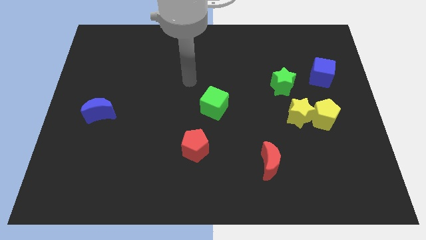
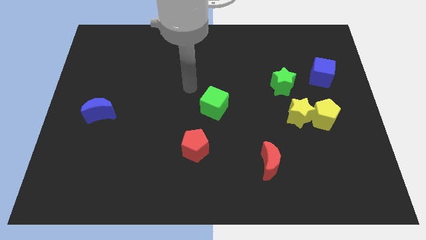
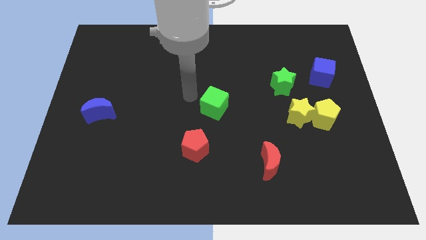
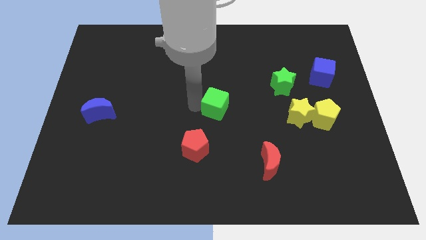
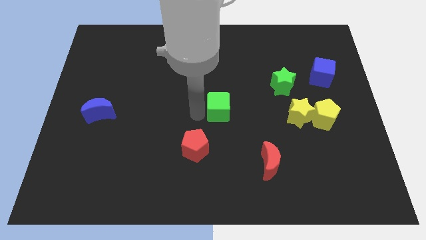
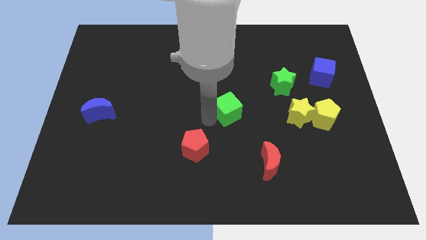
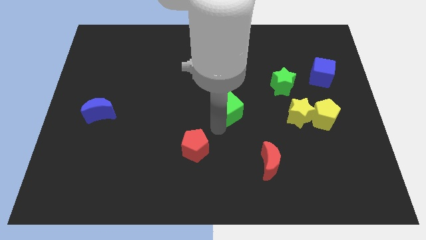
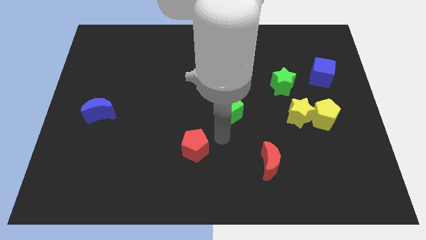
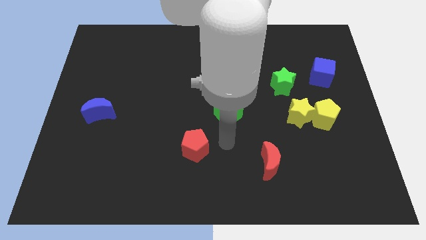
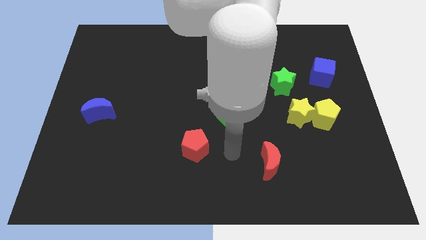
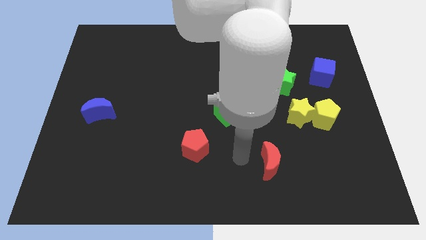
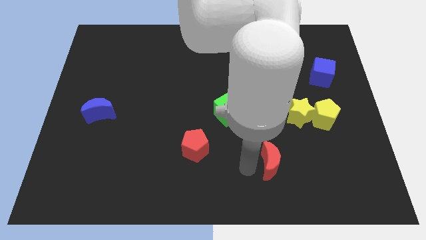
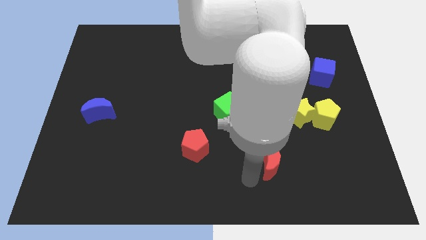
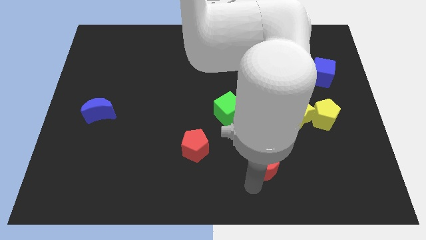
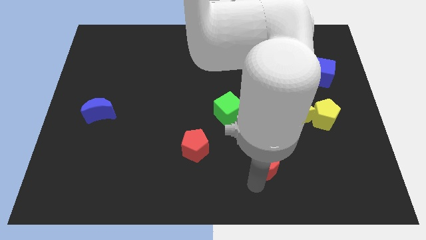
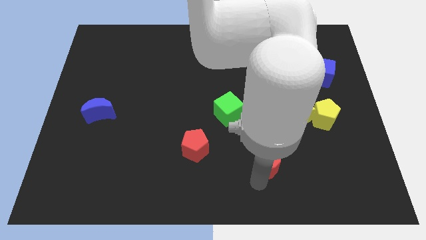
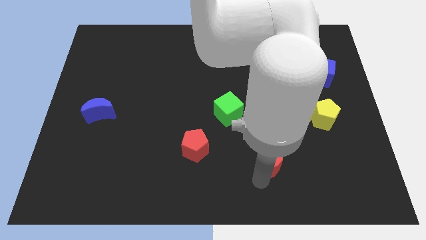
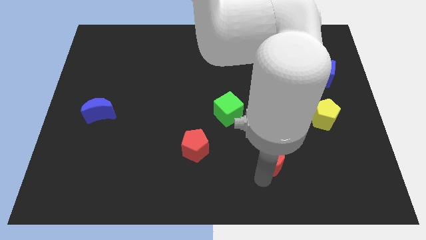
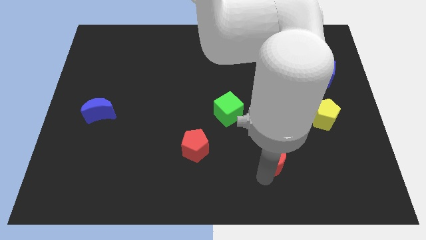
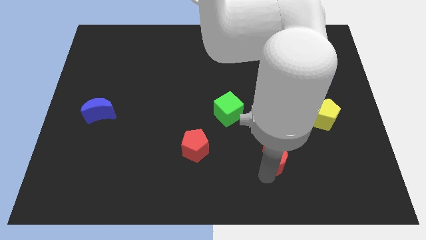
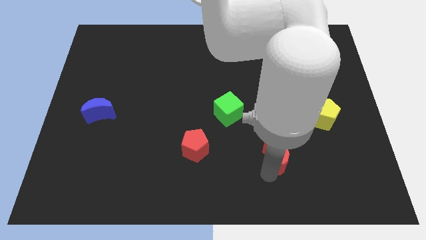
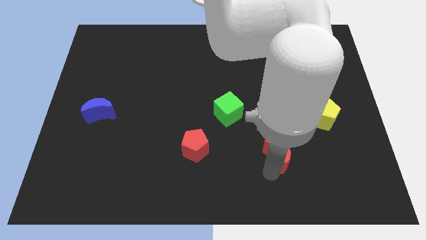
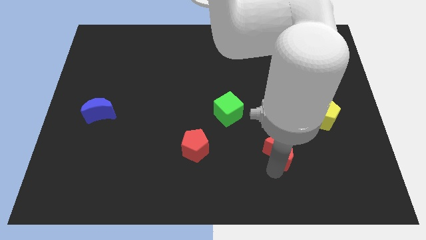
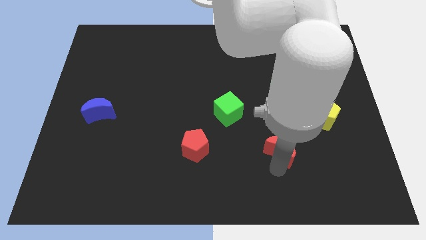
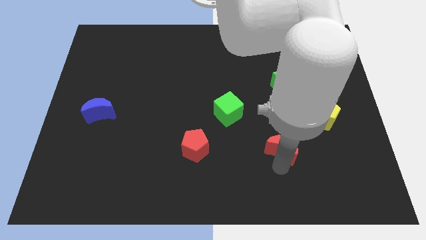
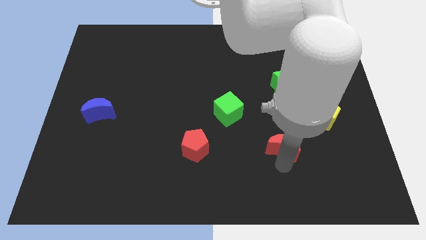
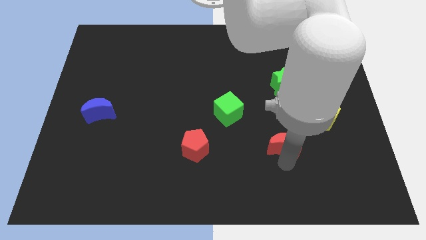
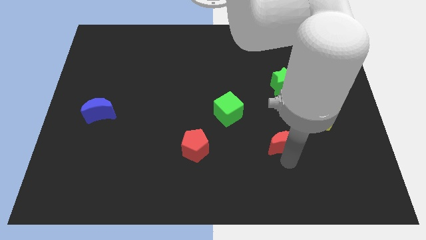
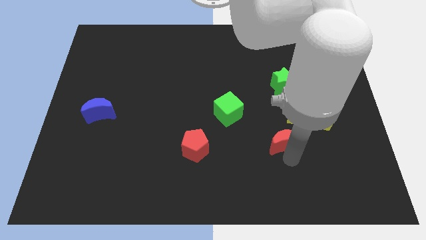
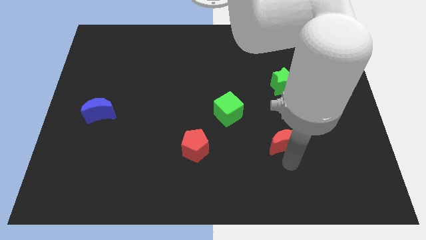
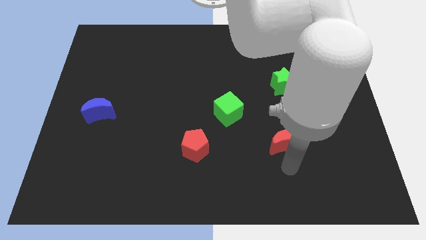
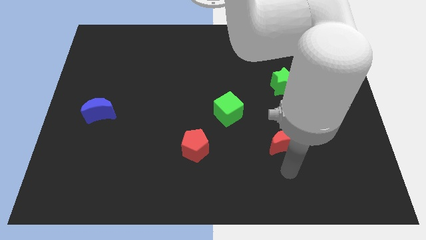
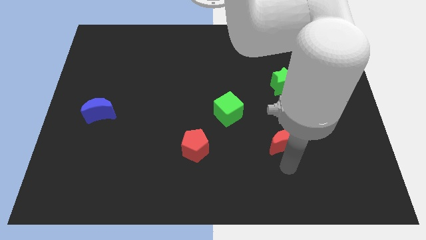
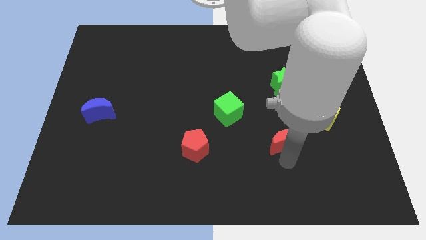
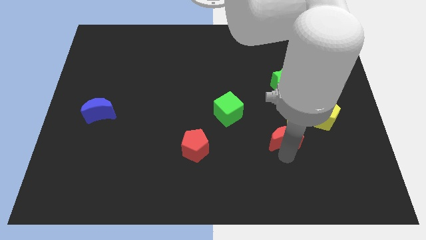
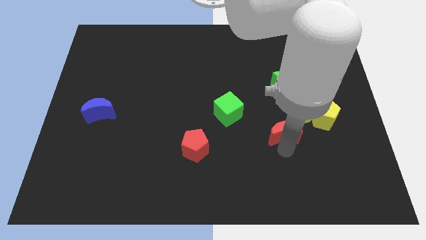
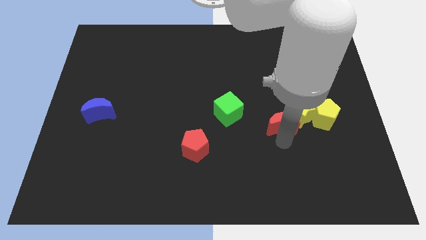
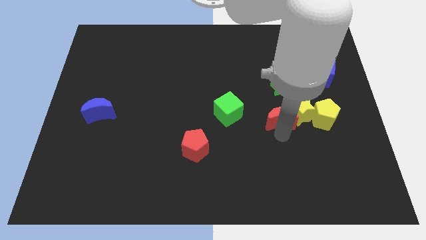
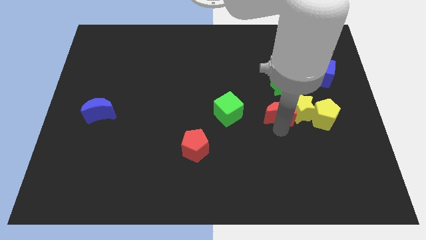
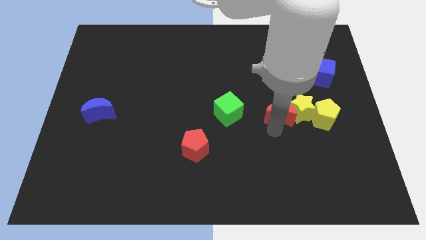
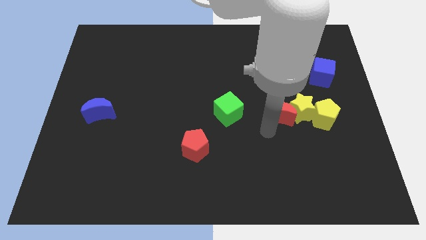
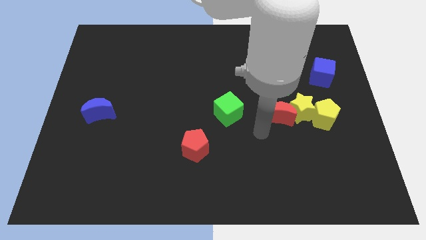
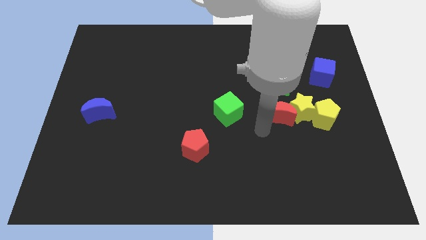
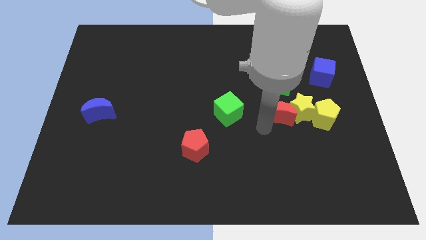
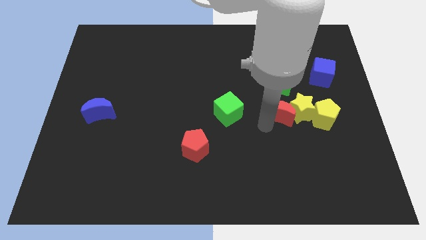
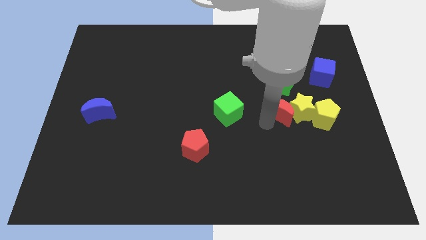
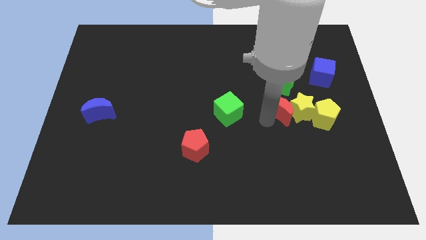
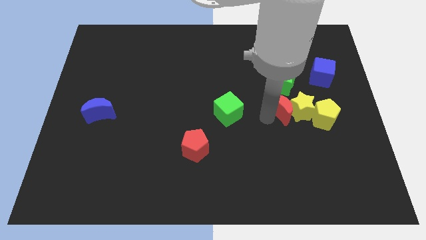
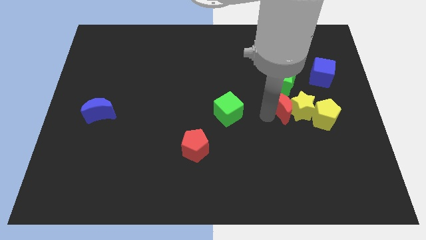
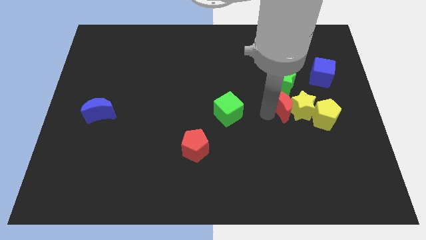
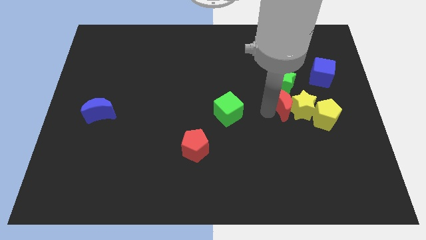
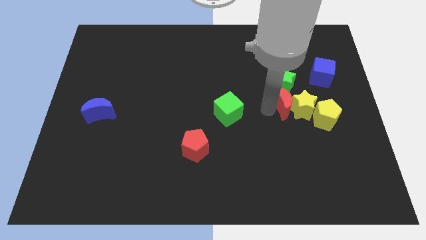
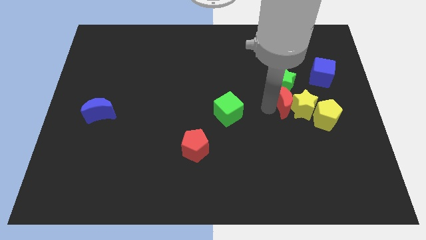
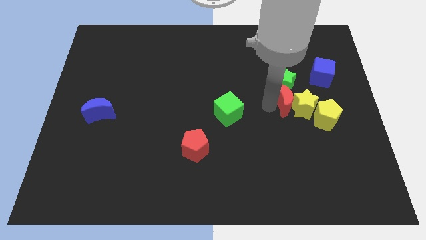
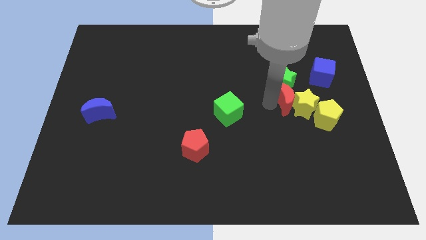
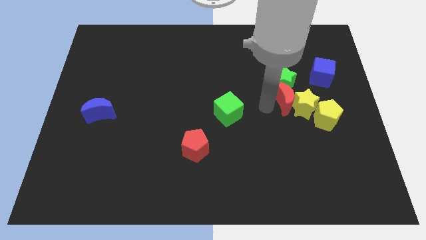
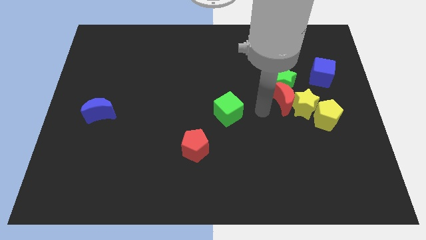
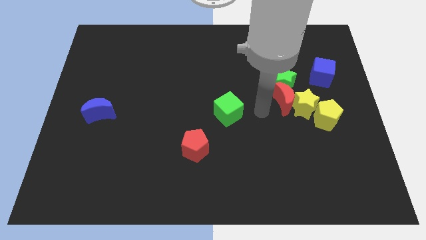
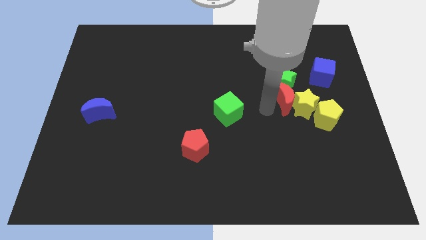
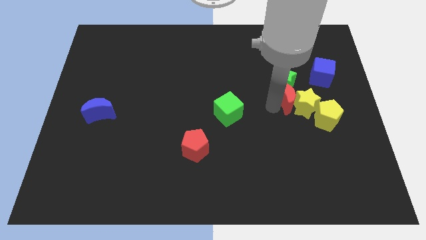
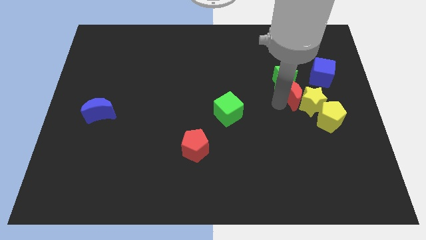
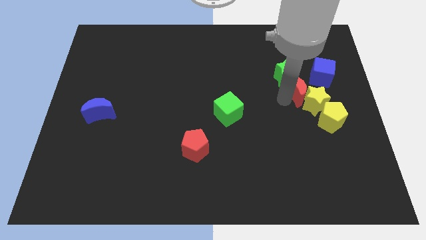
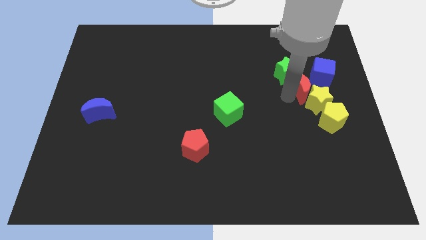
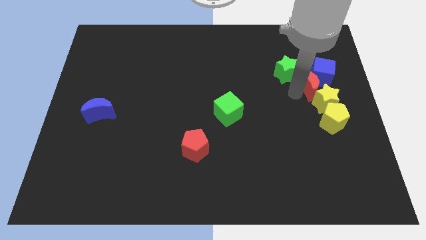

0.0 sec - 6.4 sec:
move the red moon close to the blue cube
